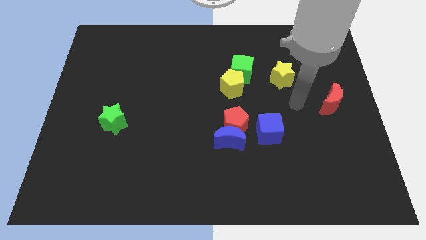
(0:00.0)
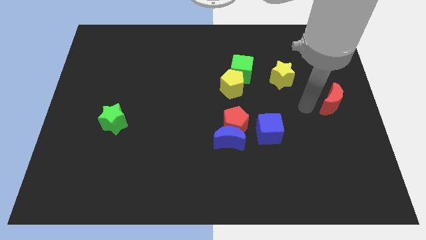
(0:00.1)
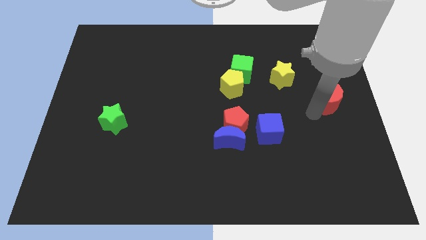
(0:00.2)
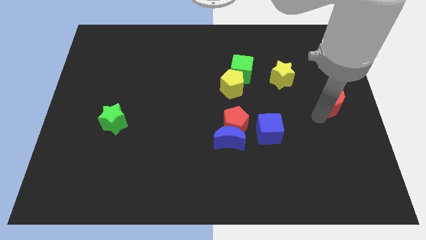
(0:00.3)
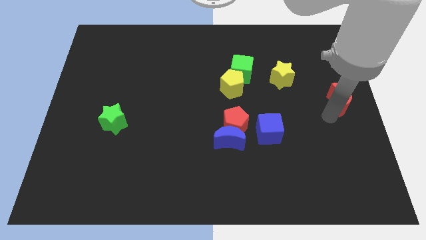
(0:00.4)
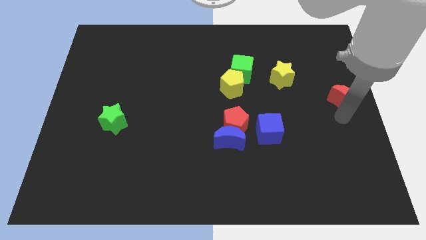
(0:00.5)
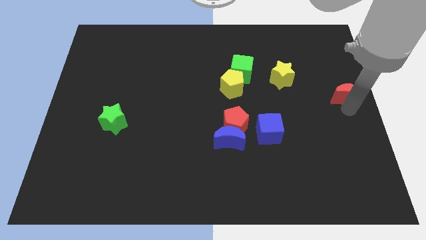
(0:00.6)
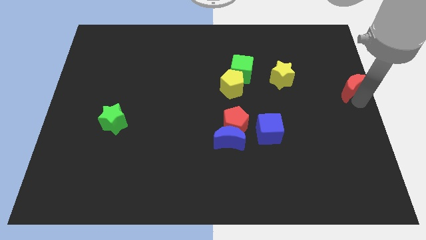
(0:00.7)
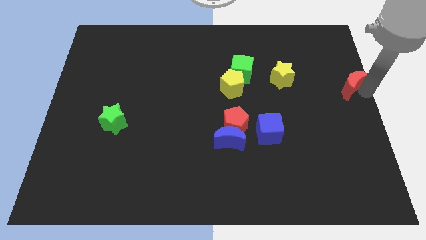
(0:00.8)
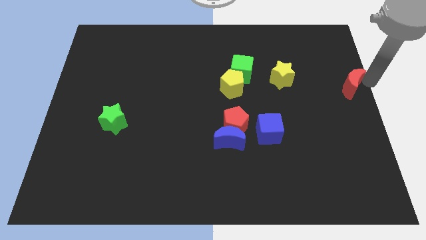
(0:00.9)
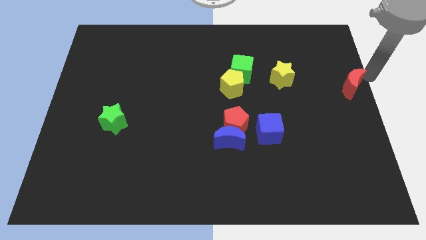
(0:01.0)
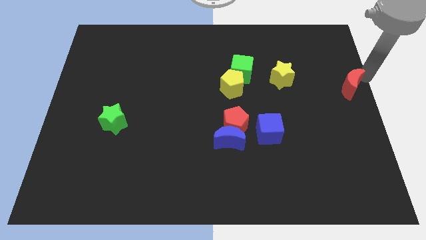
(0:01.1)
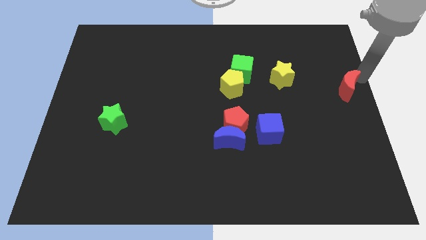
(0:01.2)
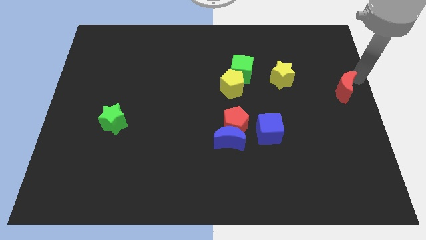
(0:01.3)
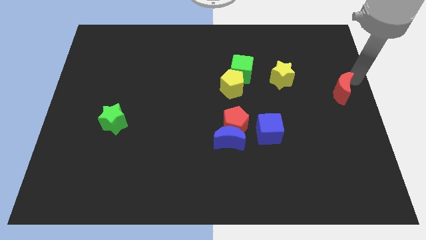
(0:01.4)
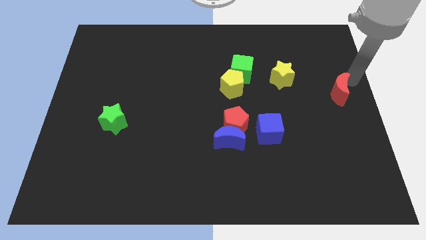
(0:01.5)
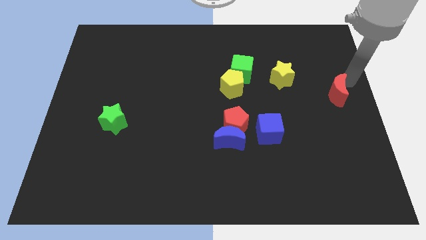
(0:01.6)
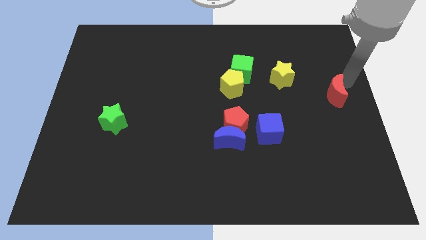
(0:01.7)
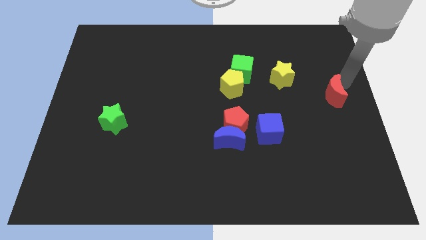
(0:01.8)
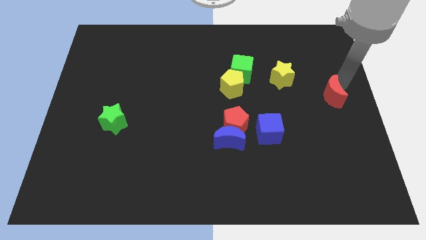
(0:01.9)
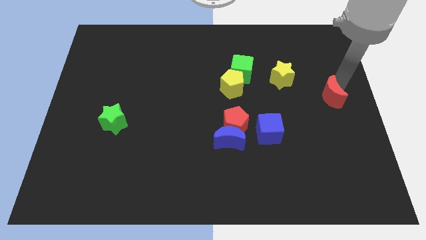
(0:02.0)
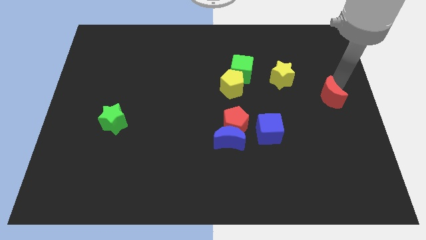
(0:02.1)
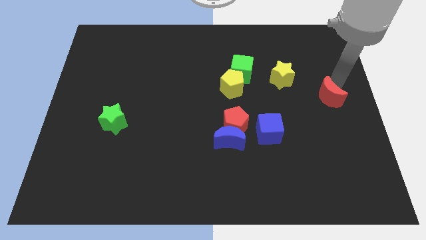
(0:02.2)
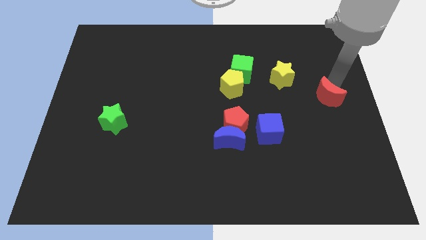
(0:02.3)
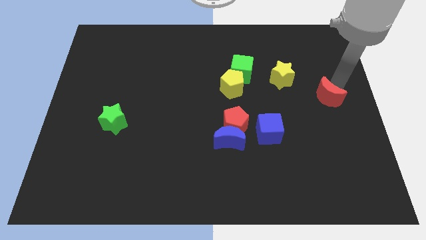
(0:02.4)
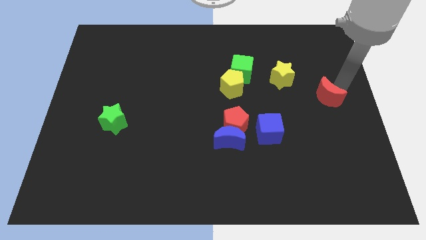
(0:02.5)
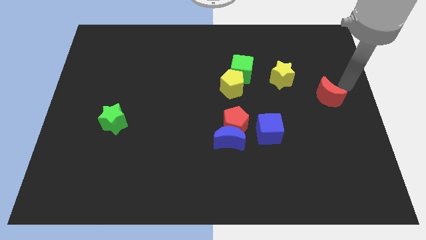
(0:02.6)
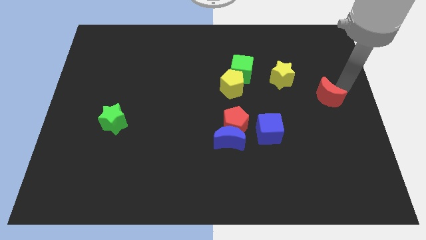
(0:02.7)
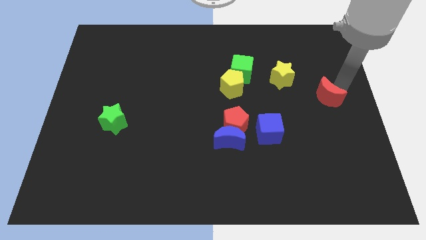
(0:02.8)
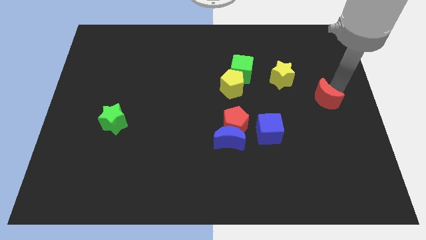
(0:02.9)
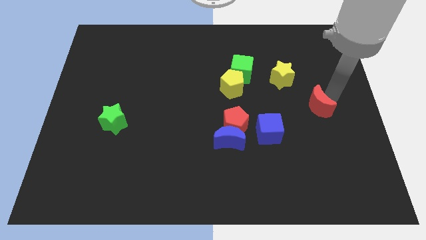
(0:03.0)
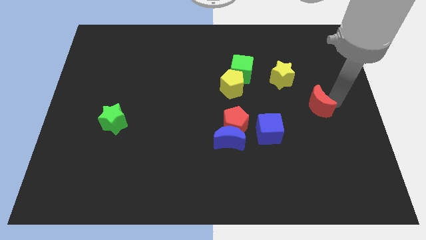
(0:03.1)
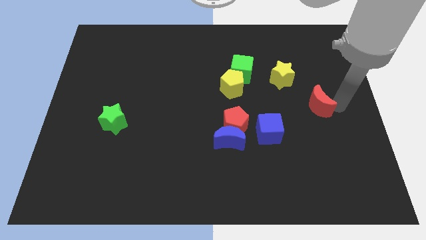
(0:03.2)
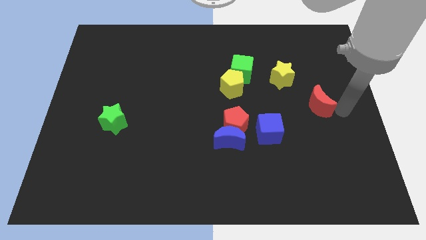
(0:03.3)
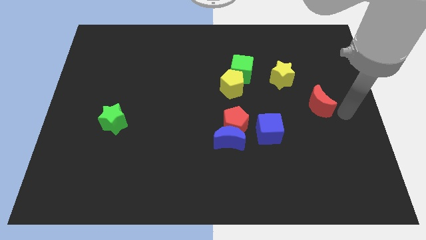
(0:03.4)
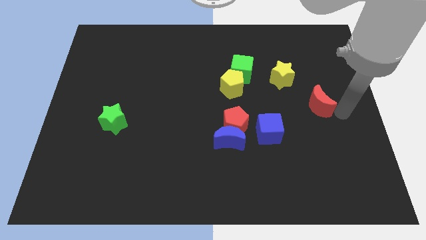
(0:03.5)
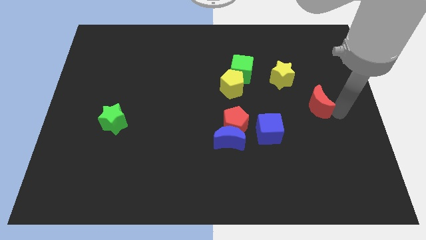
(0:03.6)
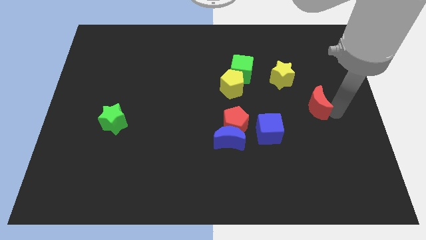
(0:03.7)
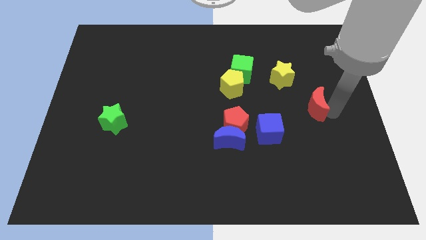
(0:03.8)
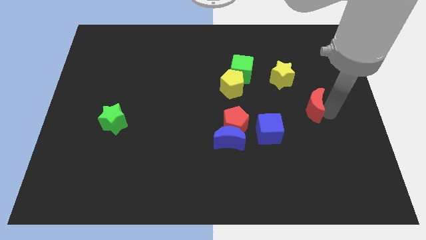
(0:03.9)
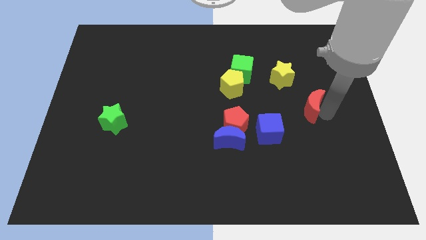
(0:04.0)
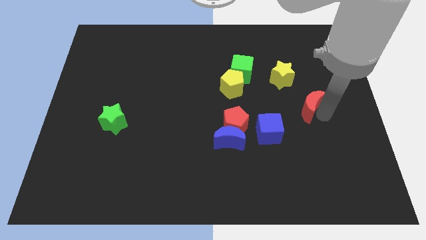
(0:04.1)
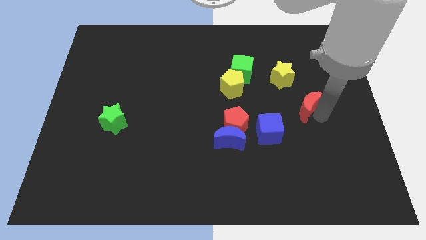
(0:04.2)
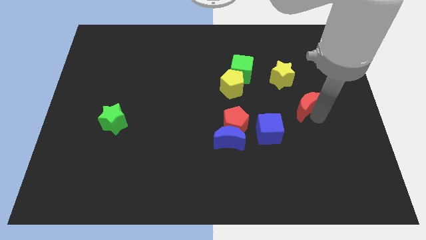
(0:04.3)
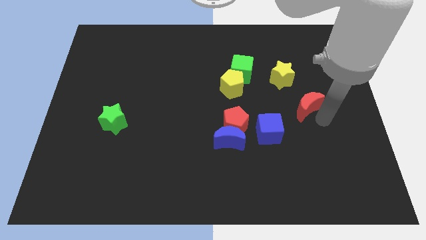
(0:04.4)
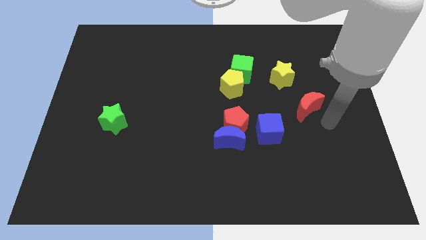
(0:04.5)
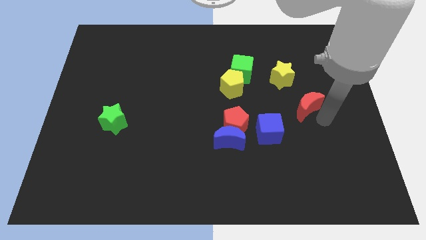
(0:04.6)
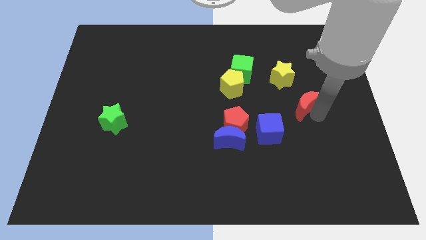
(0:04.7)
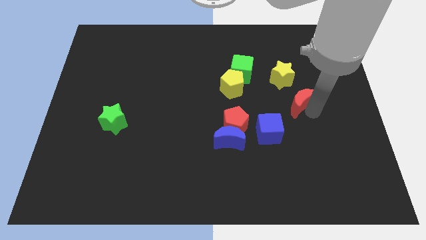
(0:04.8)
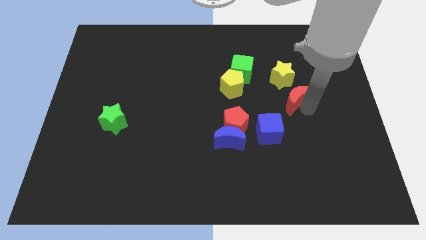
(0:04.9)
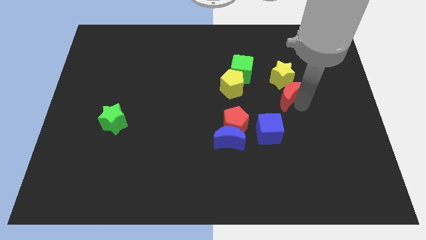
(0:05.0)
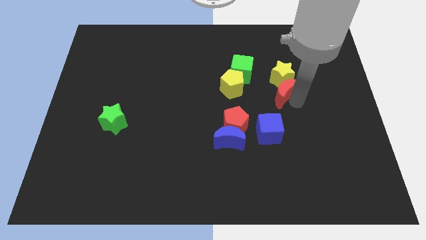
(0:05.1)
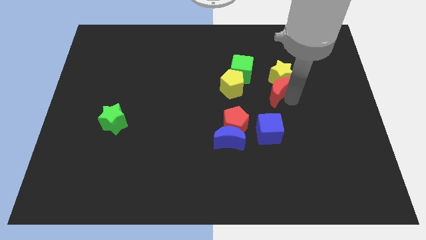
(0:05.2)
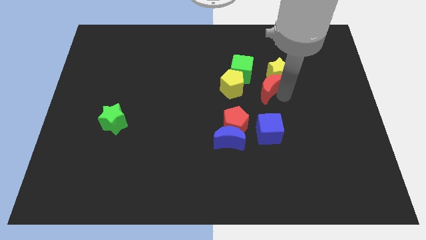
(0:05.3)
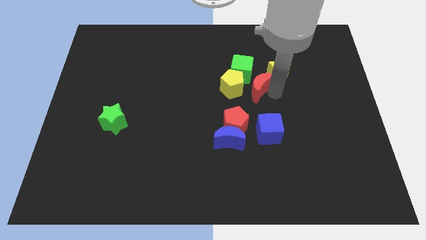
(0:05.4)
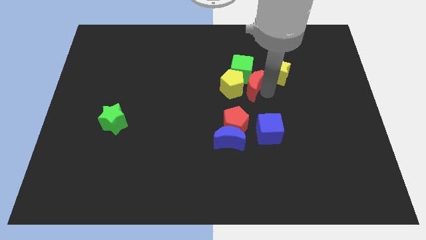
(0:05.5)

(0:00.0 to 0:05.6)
put the red moon next to the green cube

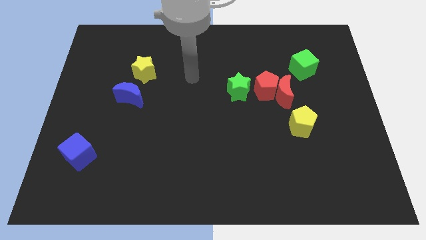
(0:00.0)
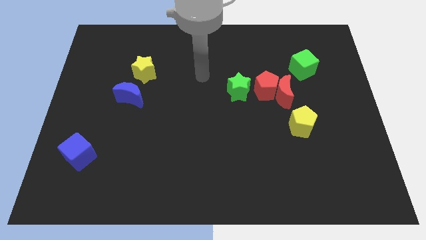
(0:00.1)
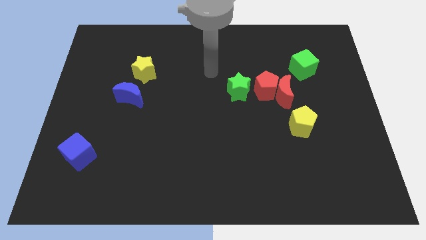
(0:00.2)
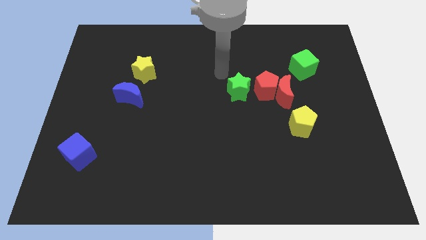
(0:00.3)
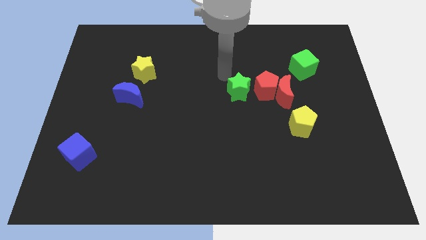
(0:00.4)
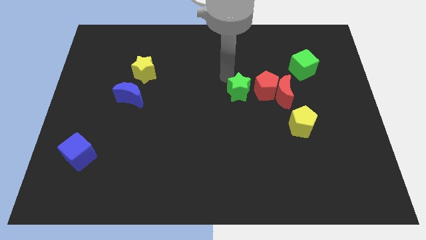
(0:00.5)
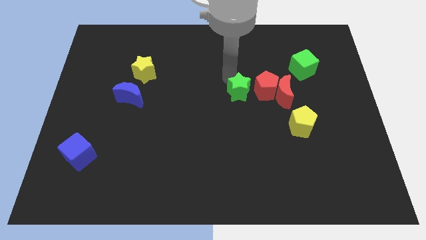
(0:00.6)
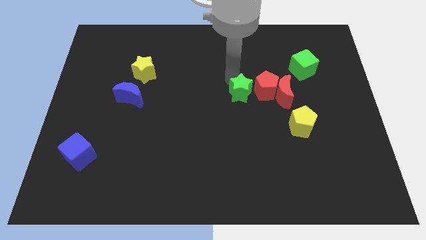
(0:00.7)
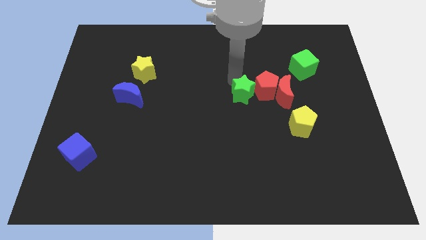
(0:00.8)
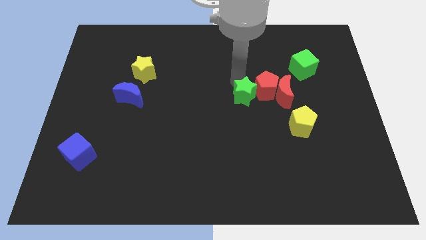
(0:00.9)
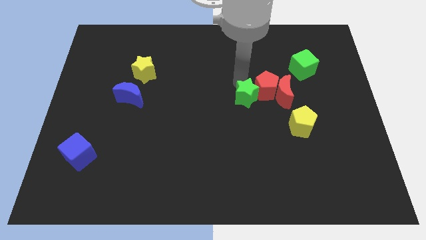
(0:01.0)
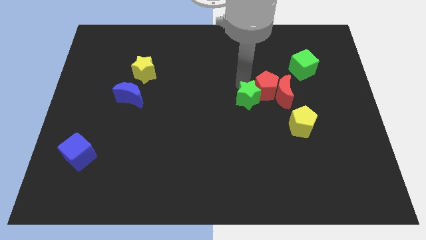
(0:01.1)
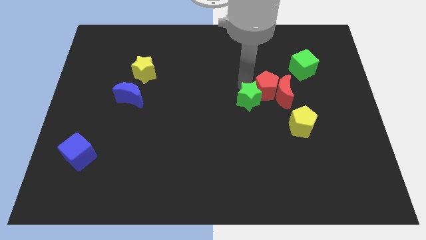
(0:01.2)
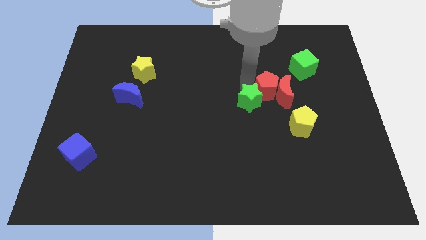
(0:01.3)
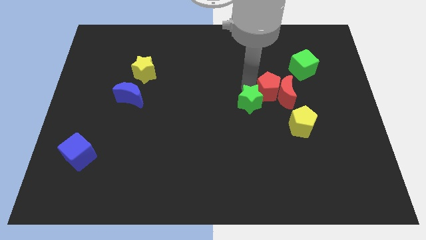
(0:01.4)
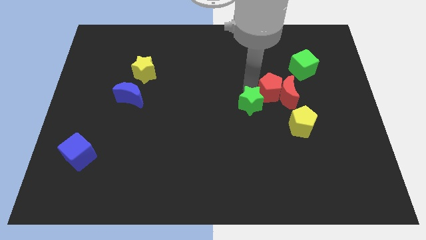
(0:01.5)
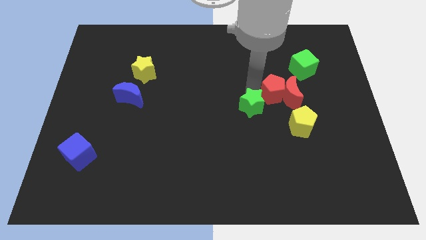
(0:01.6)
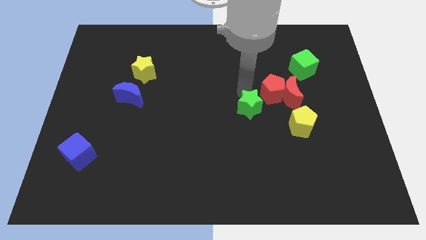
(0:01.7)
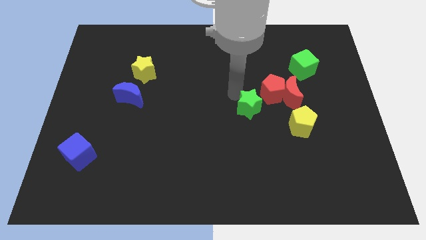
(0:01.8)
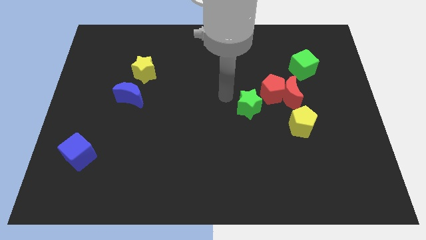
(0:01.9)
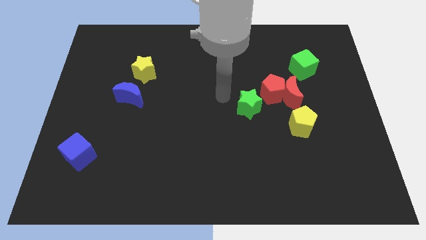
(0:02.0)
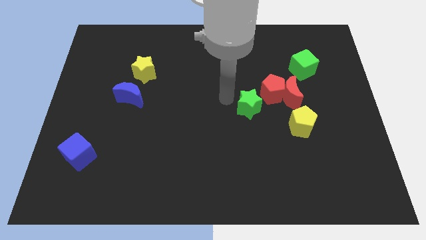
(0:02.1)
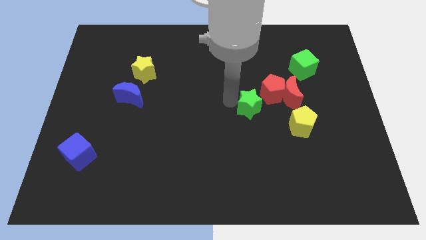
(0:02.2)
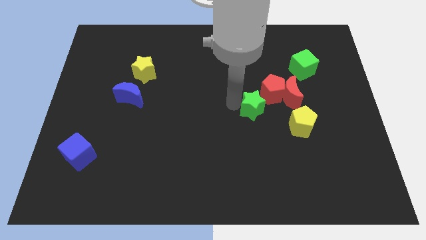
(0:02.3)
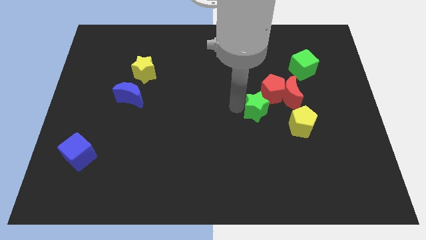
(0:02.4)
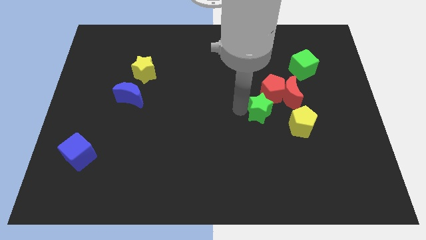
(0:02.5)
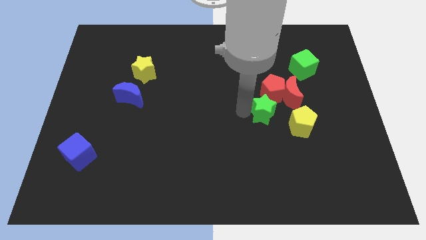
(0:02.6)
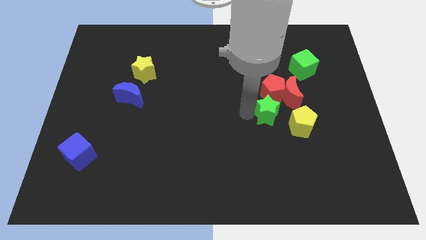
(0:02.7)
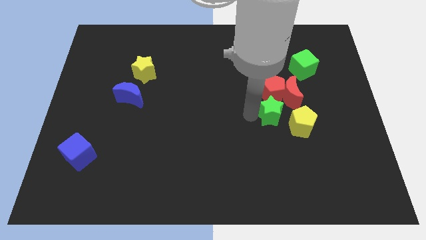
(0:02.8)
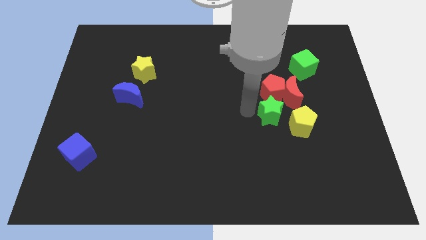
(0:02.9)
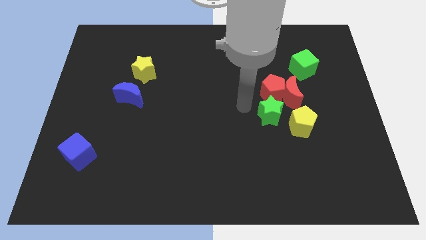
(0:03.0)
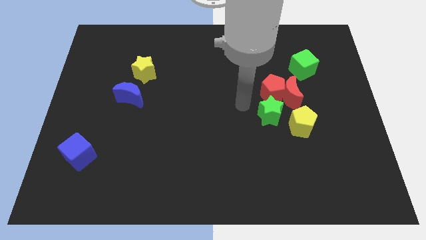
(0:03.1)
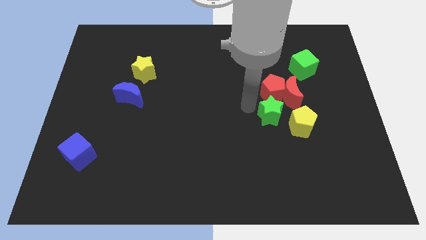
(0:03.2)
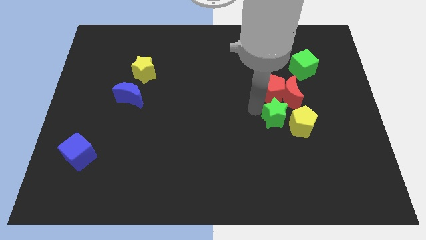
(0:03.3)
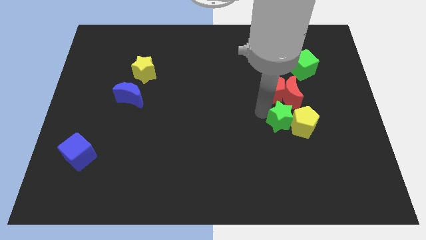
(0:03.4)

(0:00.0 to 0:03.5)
push the green star next to the yellow pentagon
